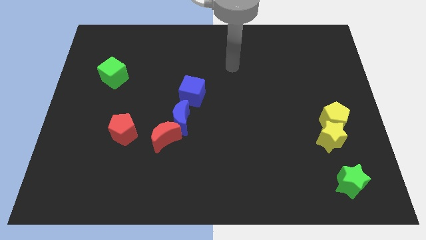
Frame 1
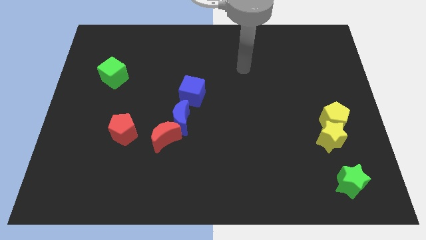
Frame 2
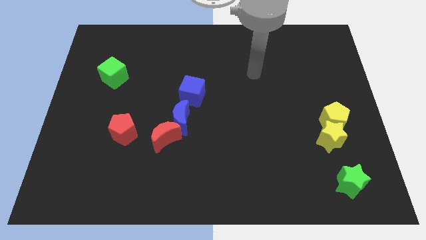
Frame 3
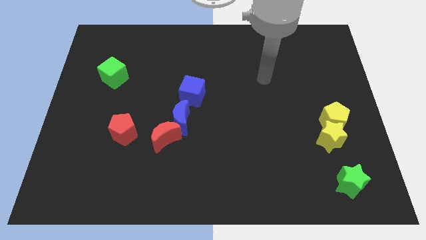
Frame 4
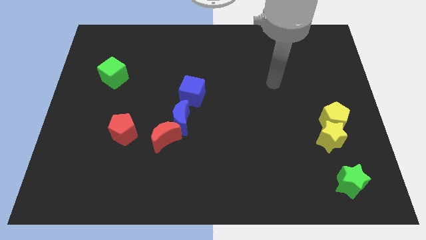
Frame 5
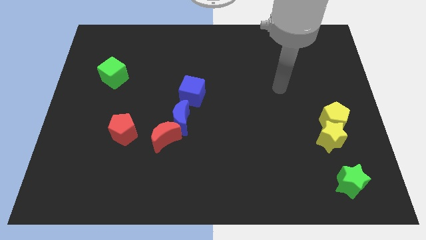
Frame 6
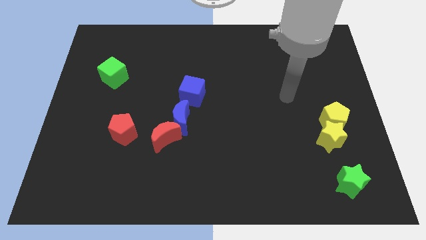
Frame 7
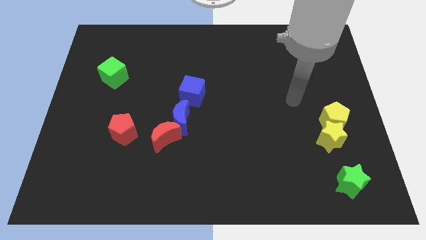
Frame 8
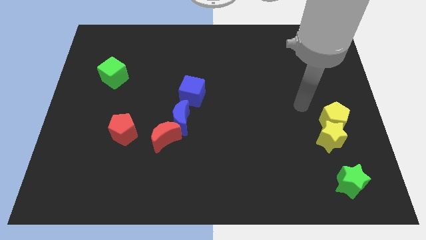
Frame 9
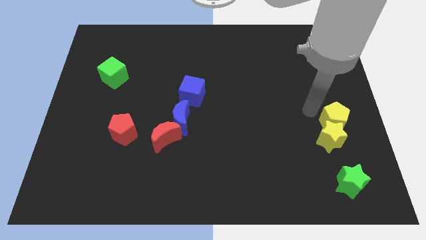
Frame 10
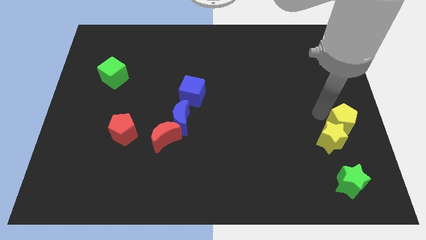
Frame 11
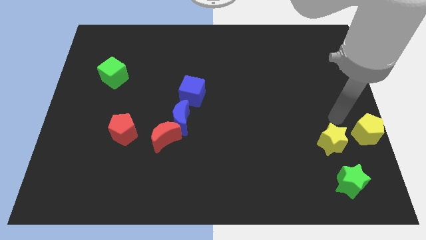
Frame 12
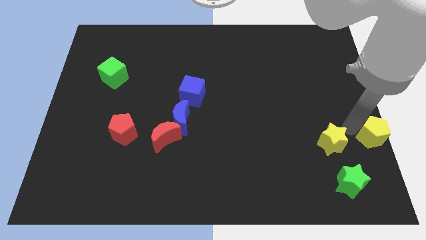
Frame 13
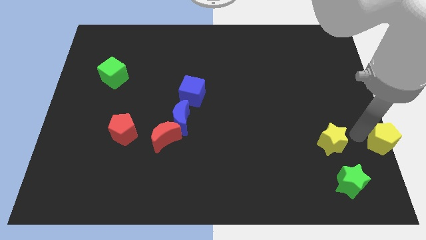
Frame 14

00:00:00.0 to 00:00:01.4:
pull the yellow star apart from the yellow pentagon

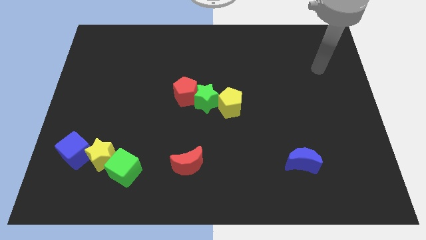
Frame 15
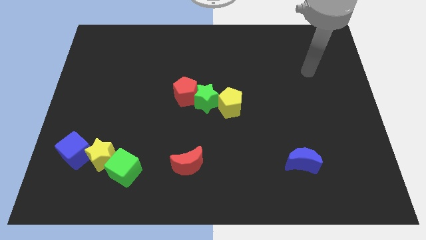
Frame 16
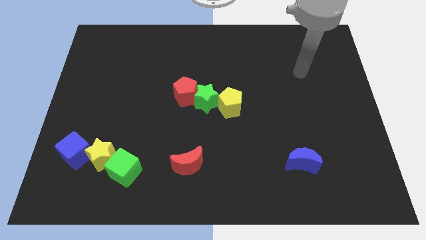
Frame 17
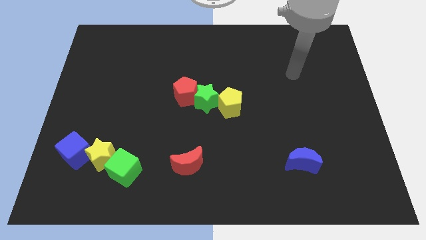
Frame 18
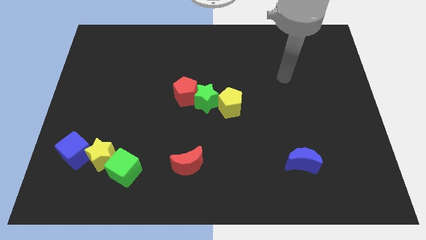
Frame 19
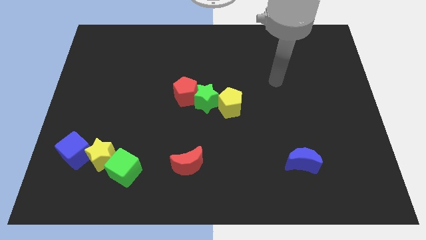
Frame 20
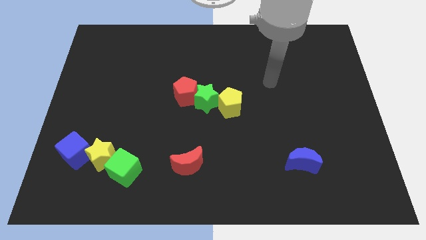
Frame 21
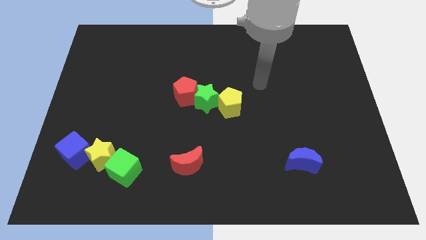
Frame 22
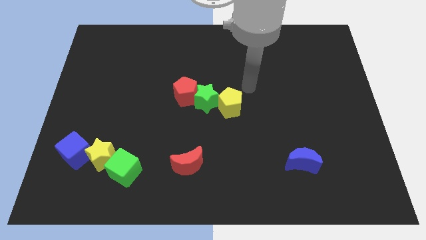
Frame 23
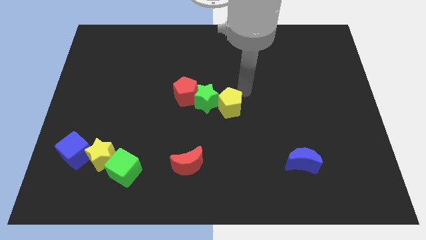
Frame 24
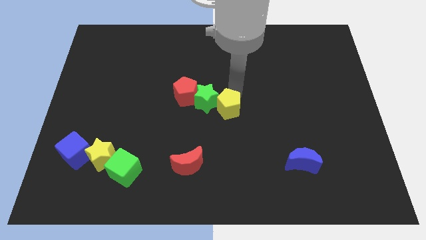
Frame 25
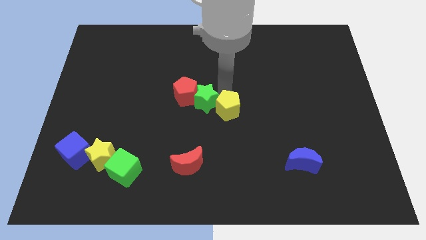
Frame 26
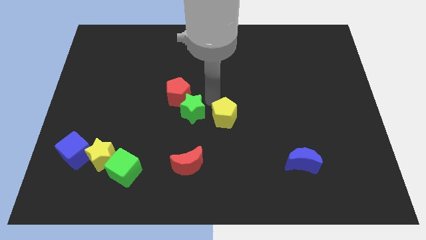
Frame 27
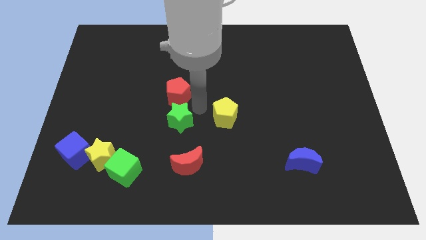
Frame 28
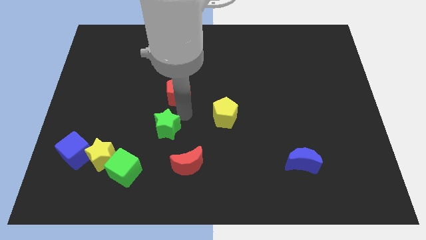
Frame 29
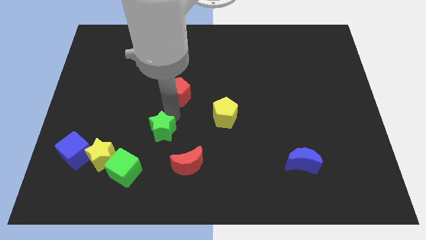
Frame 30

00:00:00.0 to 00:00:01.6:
pull the red pentagon apart from the green star

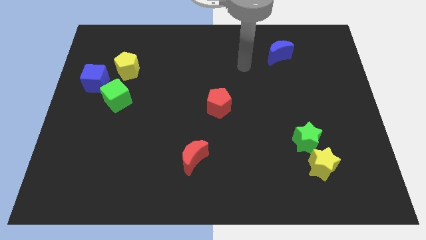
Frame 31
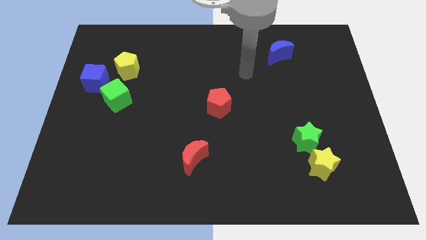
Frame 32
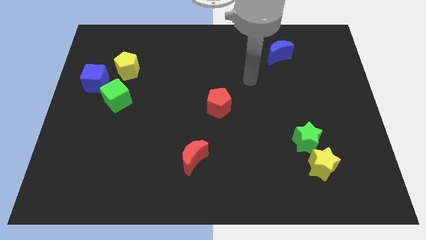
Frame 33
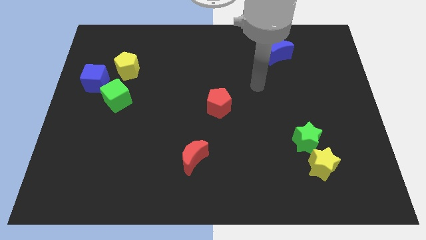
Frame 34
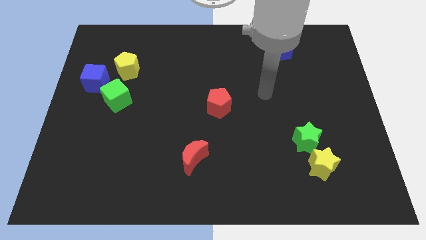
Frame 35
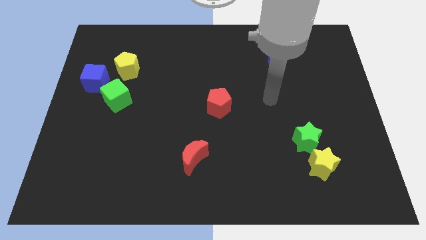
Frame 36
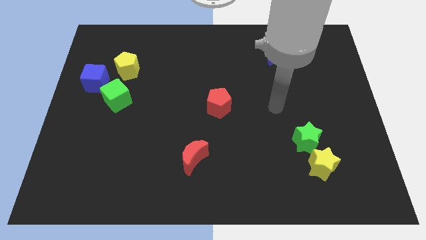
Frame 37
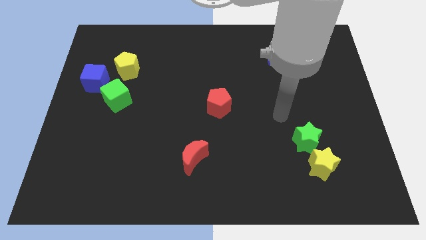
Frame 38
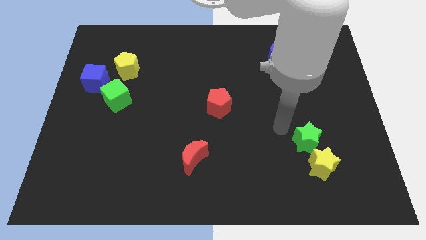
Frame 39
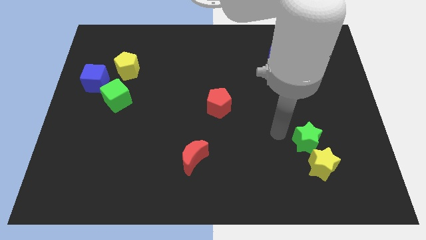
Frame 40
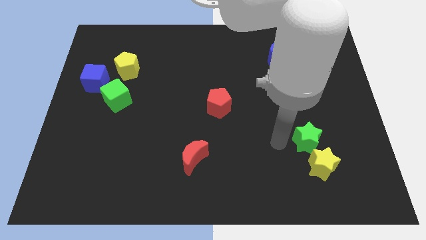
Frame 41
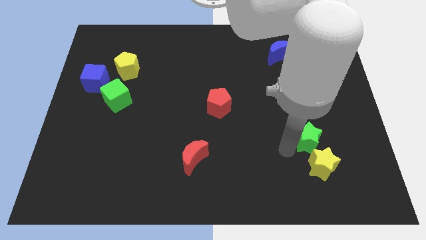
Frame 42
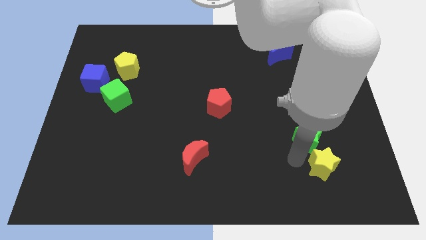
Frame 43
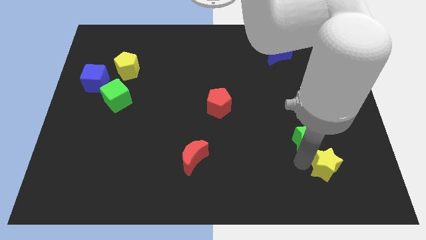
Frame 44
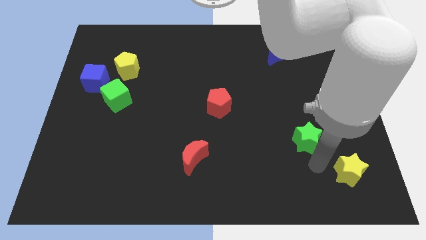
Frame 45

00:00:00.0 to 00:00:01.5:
move the green star away from the yellow star

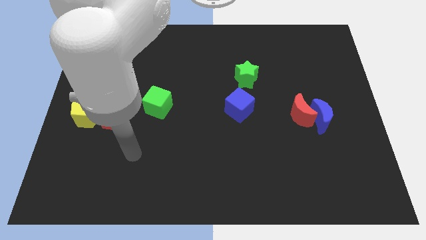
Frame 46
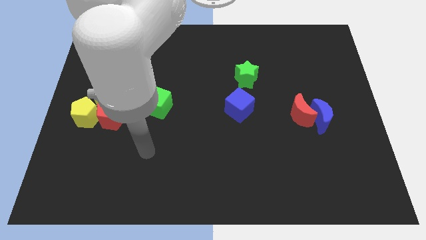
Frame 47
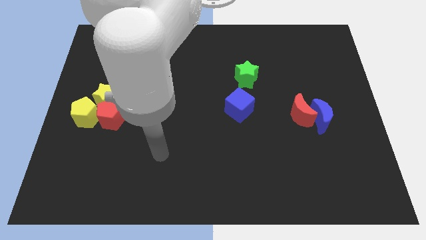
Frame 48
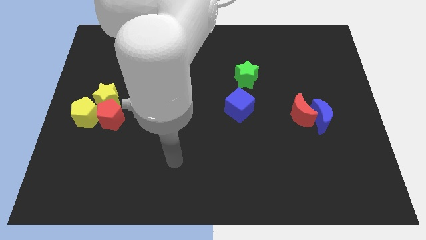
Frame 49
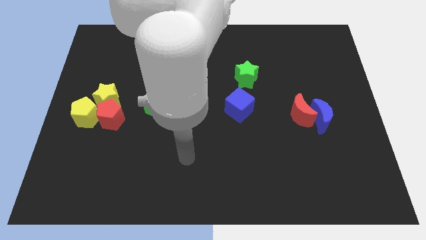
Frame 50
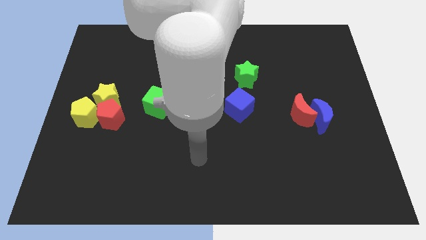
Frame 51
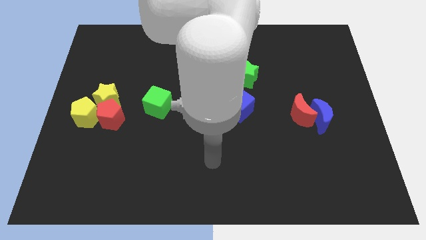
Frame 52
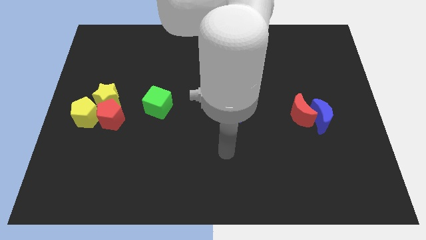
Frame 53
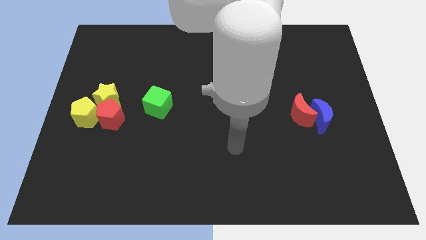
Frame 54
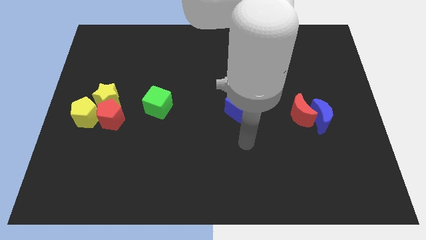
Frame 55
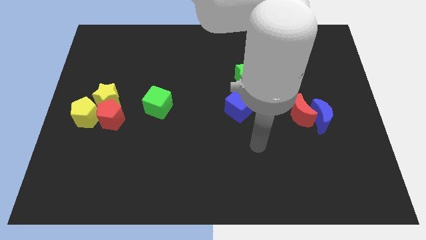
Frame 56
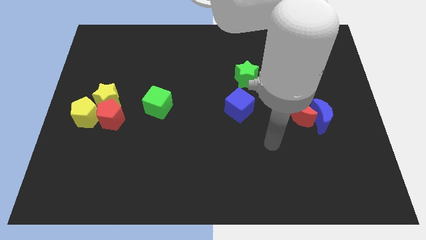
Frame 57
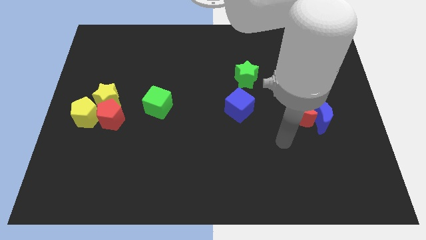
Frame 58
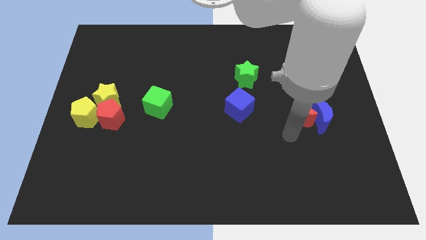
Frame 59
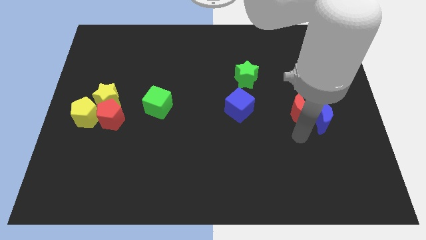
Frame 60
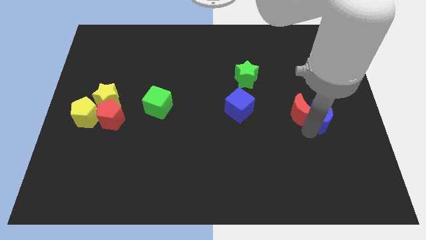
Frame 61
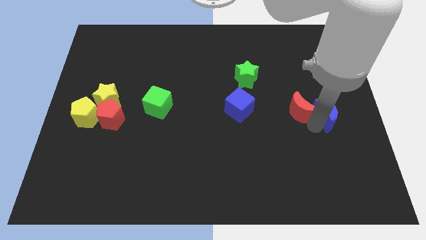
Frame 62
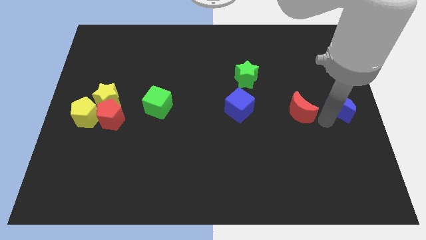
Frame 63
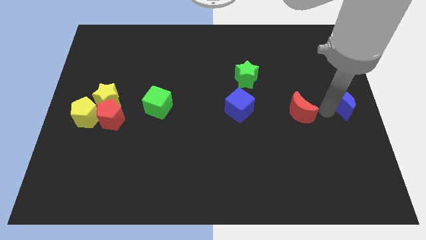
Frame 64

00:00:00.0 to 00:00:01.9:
move the red moon away from the blue moon

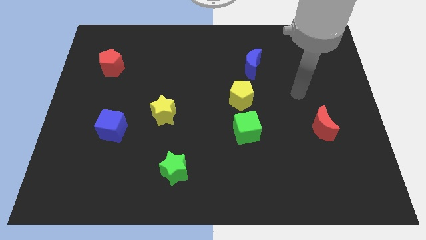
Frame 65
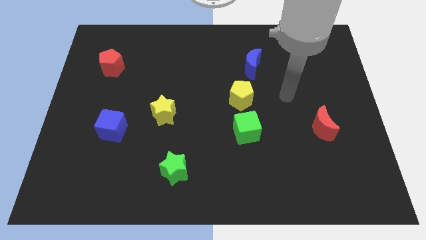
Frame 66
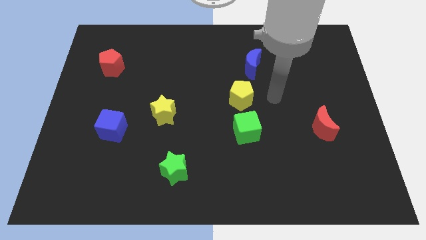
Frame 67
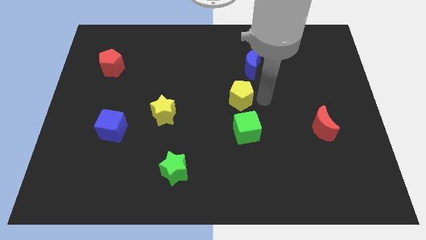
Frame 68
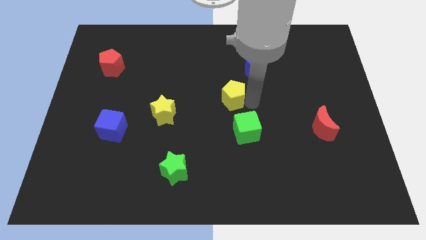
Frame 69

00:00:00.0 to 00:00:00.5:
move the green cube away from the yellow pentagon

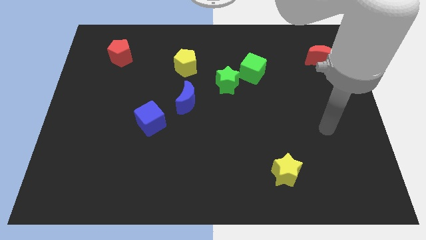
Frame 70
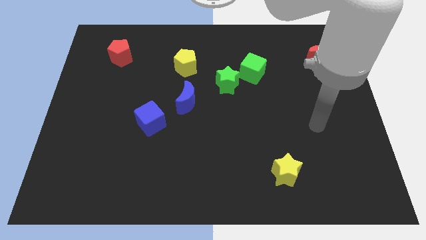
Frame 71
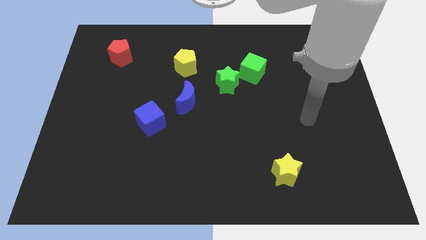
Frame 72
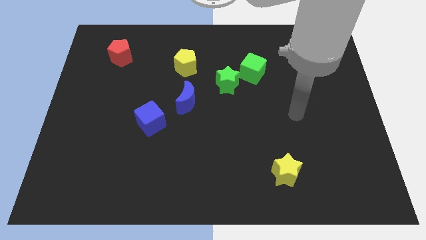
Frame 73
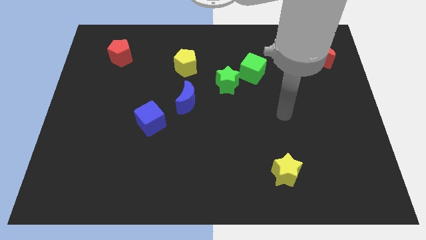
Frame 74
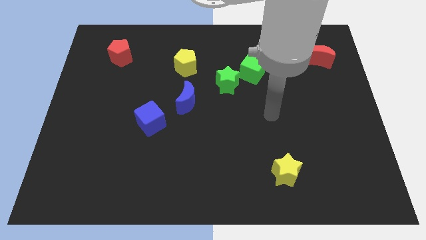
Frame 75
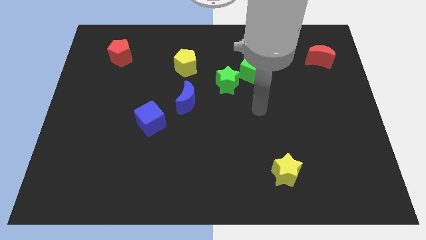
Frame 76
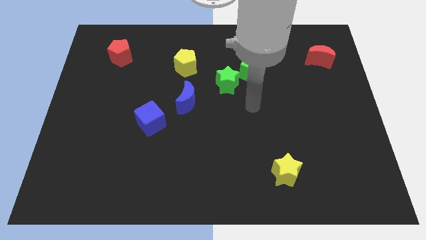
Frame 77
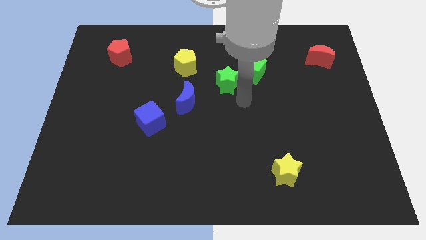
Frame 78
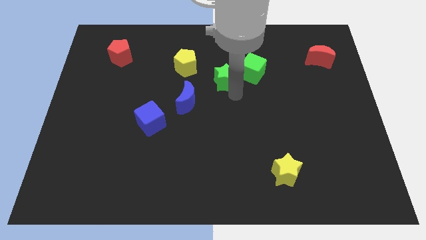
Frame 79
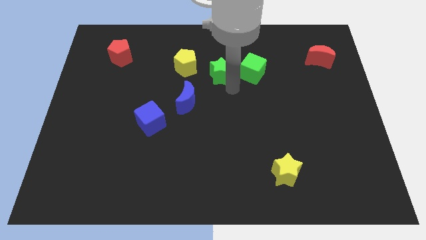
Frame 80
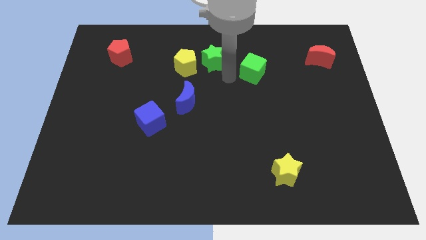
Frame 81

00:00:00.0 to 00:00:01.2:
move the green cube away from the green star

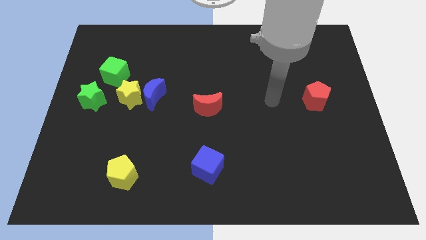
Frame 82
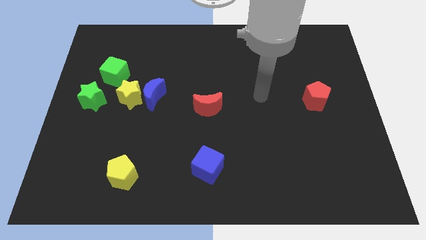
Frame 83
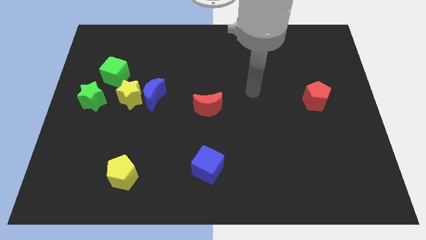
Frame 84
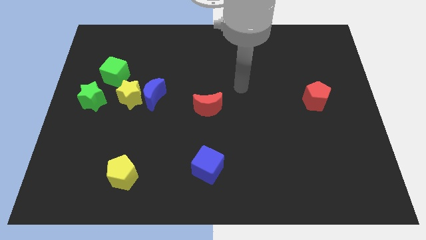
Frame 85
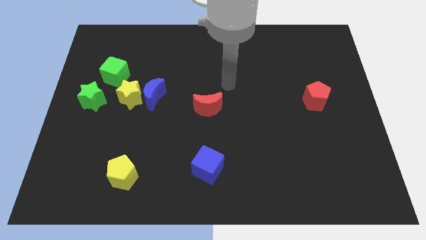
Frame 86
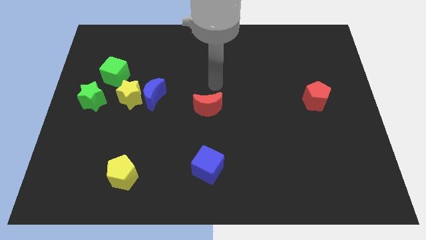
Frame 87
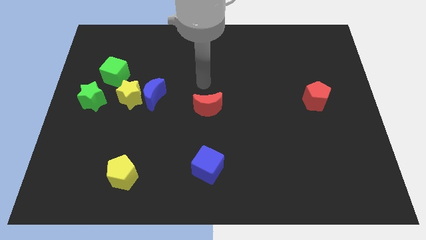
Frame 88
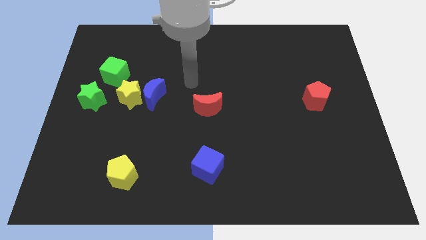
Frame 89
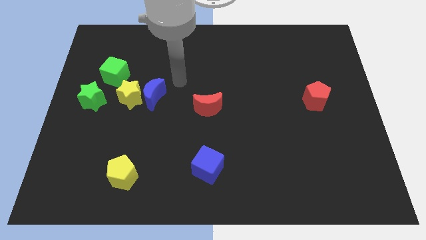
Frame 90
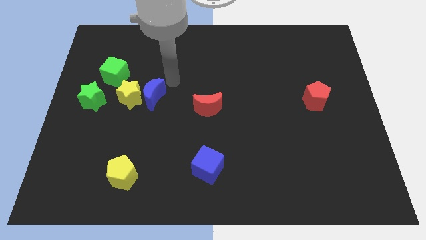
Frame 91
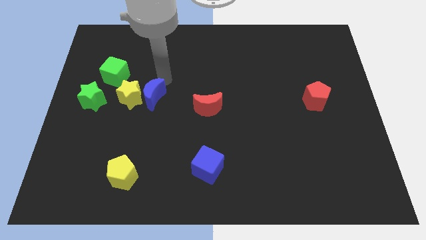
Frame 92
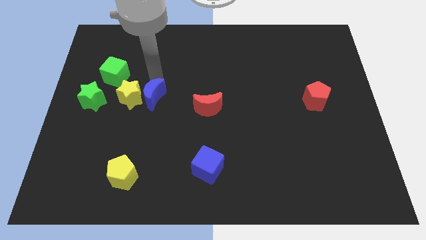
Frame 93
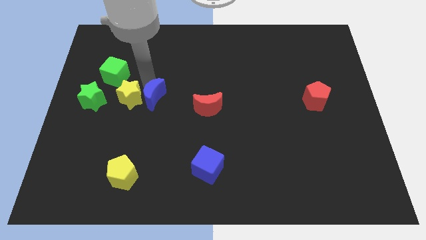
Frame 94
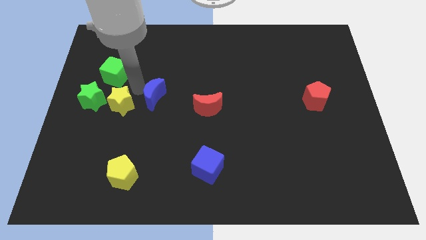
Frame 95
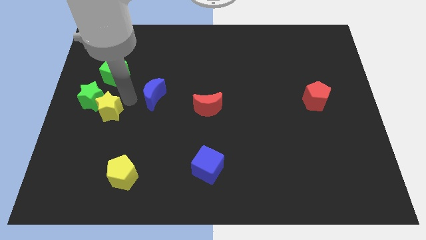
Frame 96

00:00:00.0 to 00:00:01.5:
pull the blue moon apart from the yellow star
